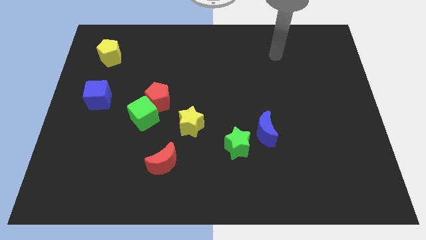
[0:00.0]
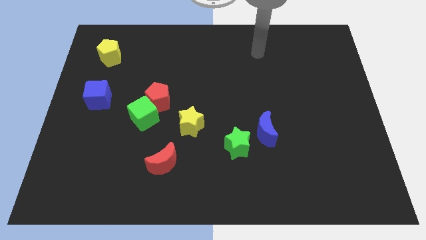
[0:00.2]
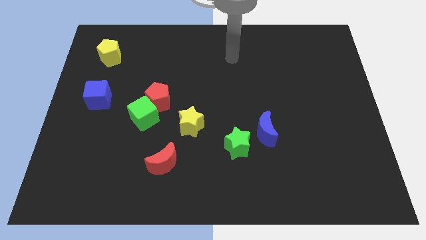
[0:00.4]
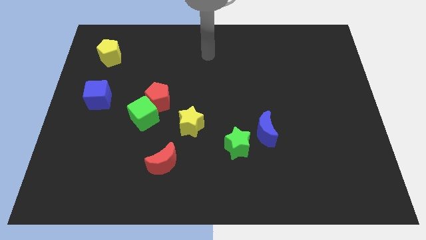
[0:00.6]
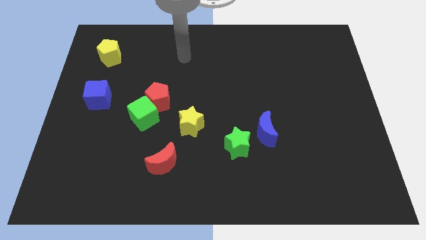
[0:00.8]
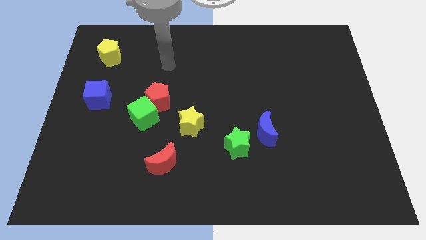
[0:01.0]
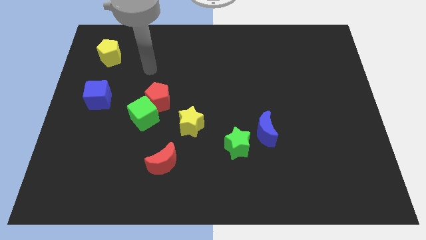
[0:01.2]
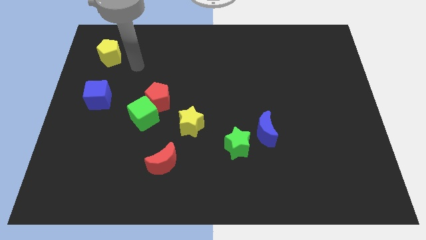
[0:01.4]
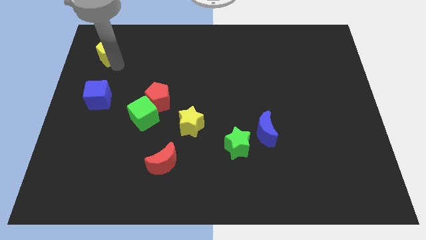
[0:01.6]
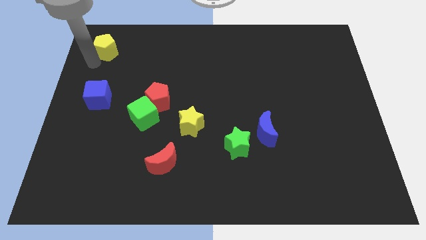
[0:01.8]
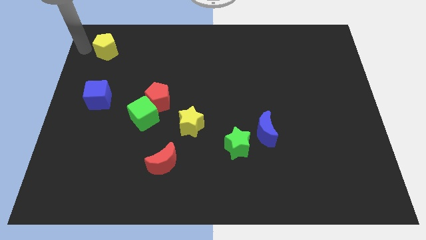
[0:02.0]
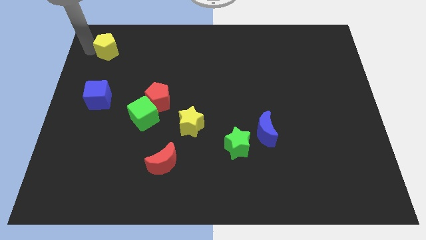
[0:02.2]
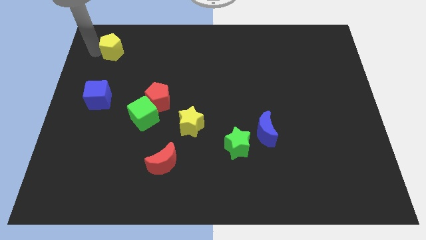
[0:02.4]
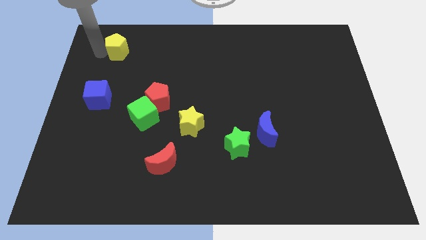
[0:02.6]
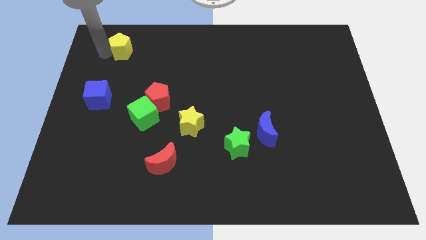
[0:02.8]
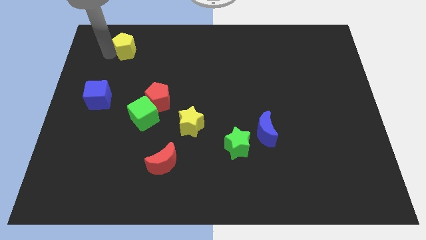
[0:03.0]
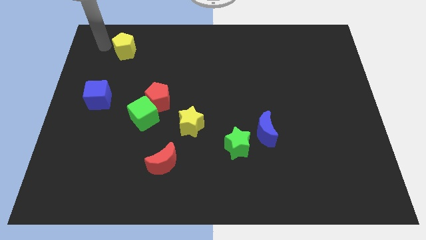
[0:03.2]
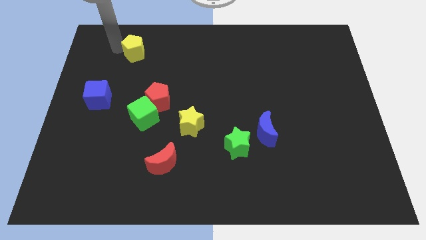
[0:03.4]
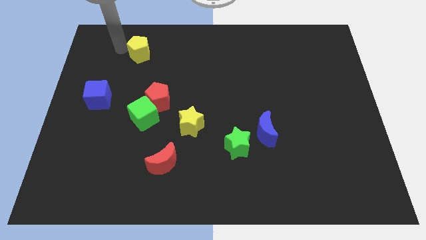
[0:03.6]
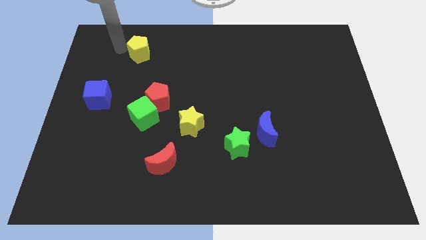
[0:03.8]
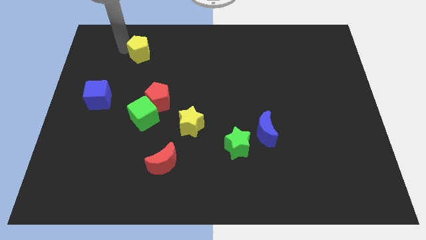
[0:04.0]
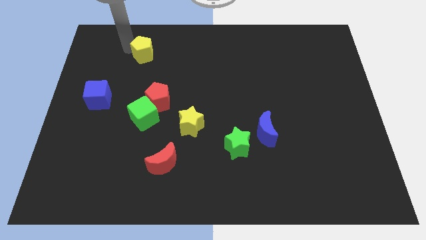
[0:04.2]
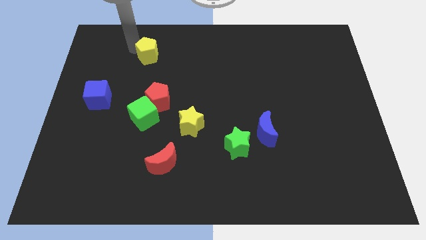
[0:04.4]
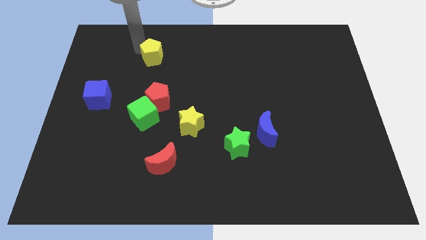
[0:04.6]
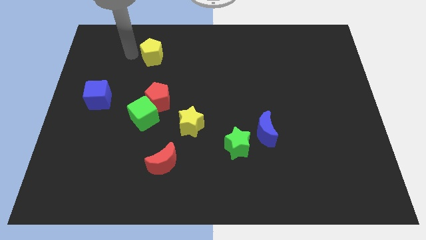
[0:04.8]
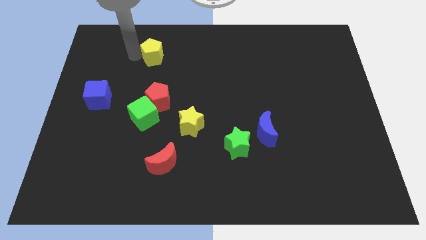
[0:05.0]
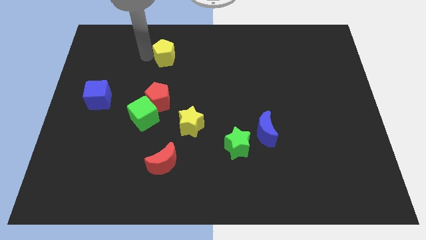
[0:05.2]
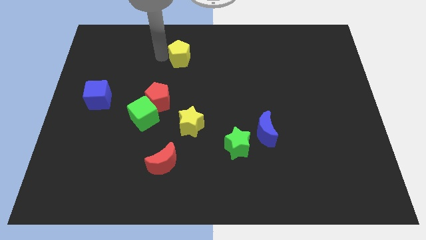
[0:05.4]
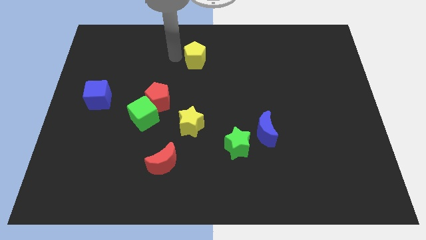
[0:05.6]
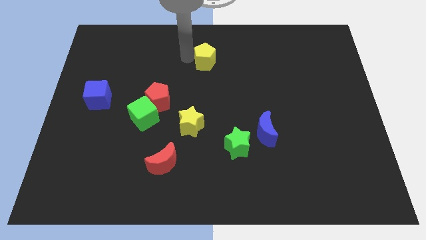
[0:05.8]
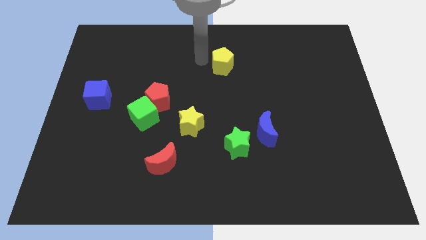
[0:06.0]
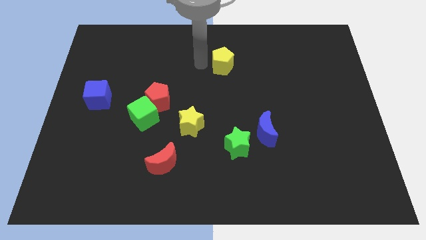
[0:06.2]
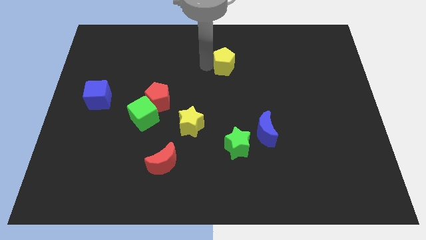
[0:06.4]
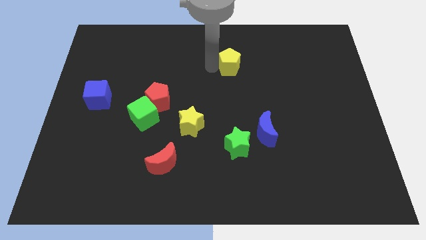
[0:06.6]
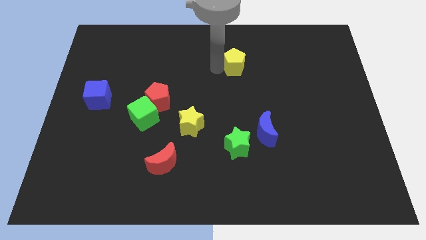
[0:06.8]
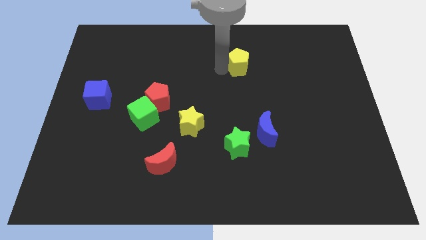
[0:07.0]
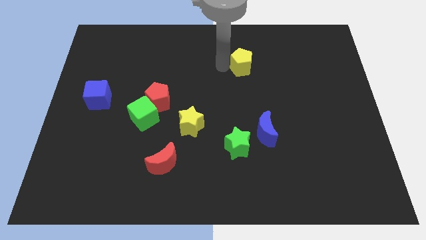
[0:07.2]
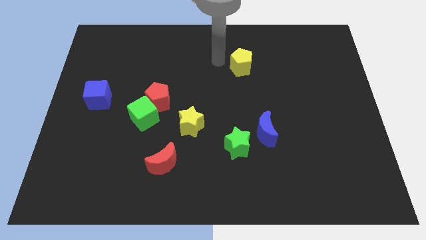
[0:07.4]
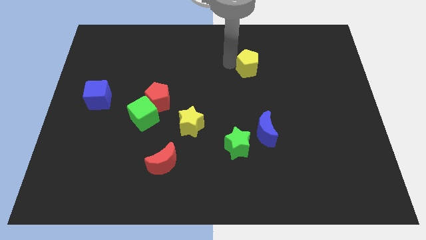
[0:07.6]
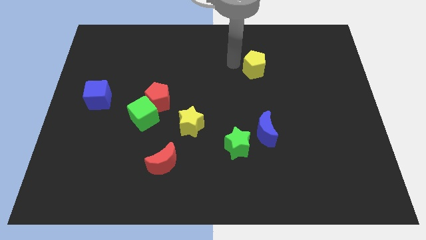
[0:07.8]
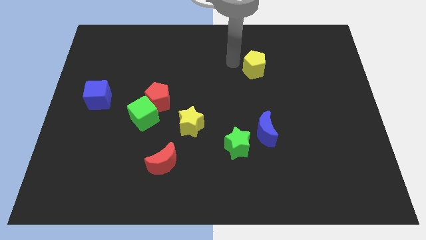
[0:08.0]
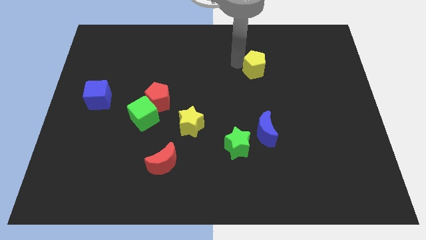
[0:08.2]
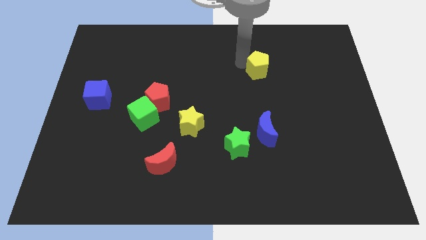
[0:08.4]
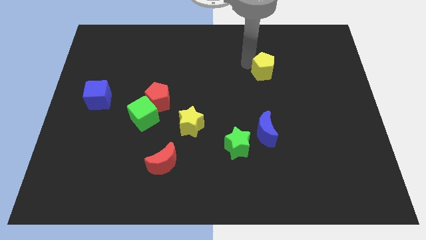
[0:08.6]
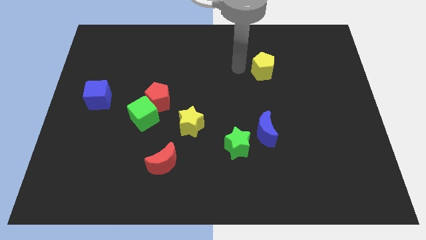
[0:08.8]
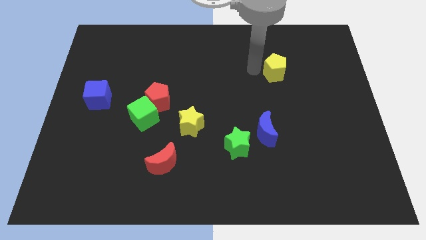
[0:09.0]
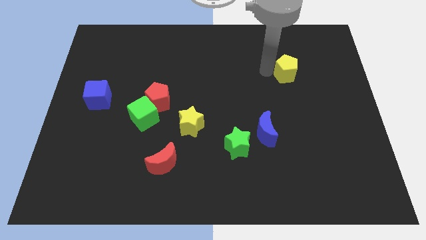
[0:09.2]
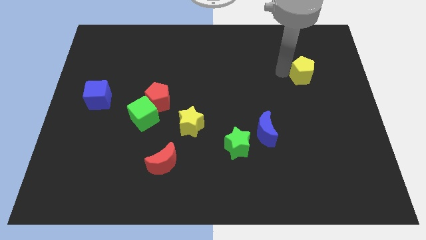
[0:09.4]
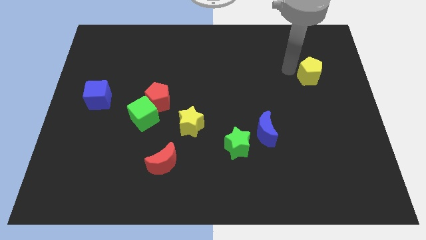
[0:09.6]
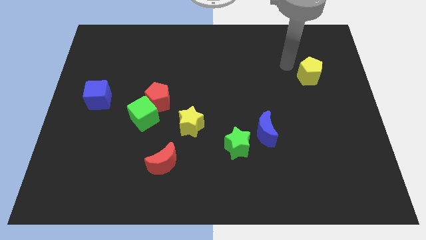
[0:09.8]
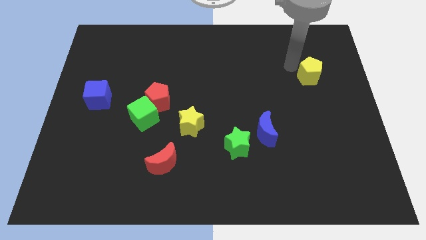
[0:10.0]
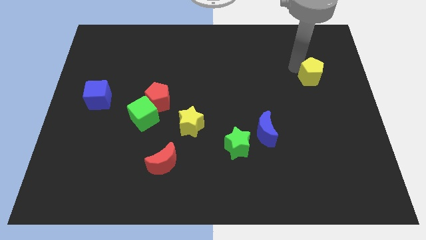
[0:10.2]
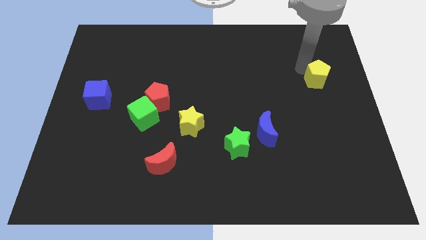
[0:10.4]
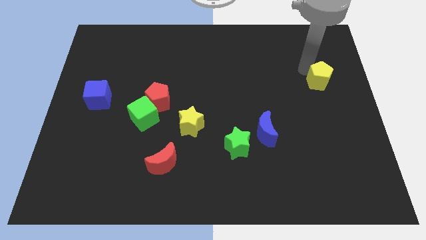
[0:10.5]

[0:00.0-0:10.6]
push the yellow pentagon to the right side of the board

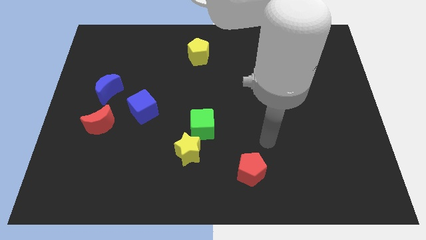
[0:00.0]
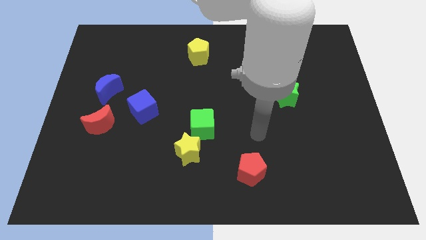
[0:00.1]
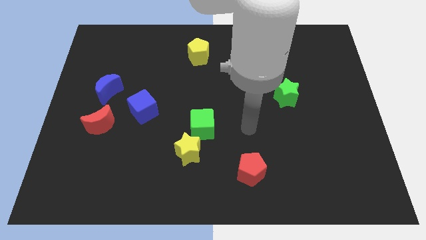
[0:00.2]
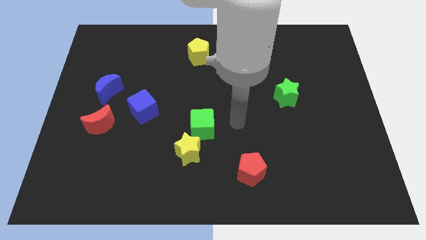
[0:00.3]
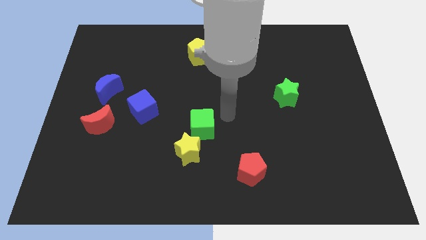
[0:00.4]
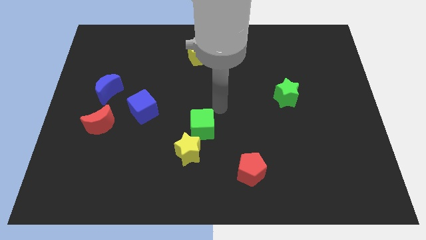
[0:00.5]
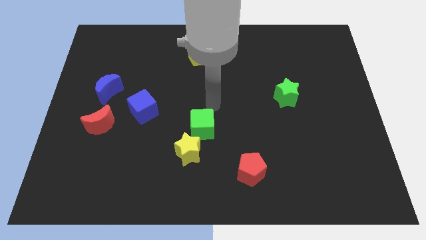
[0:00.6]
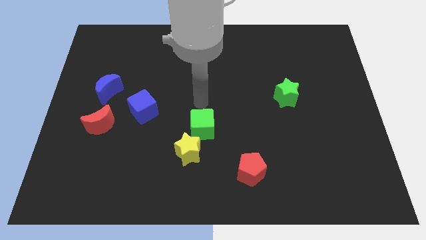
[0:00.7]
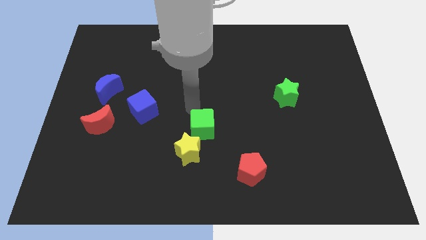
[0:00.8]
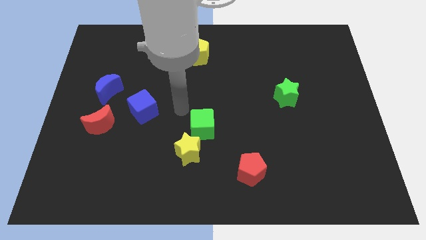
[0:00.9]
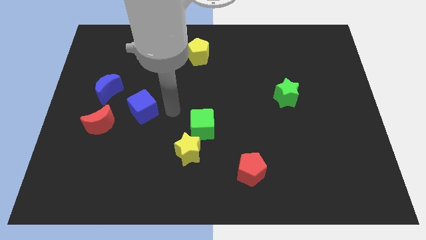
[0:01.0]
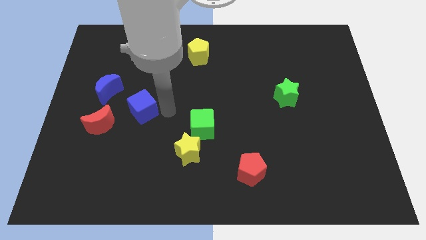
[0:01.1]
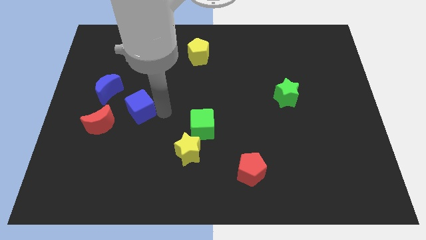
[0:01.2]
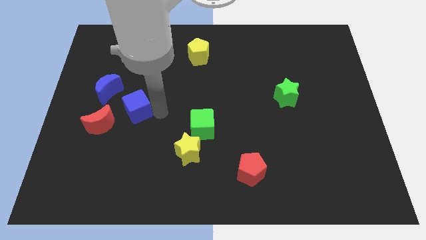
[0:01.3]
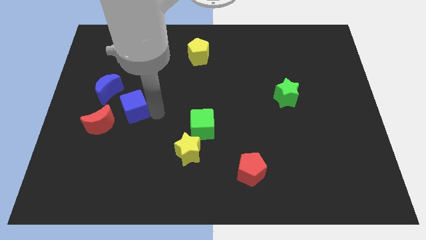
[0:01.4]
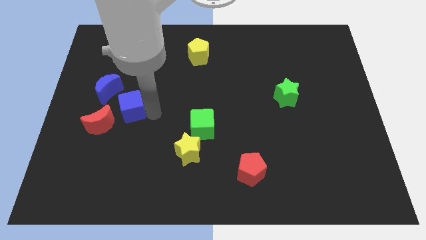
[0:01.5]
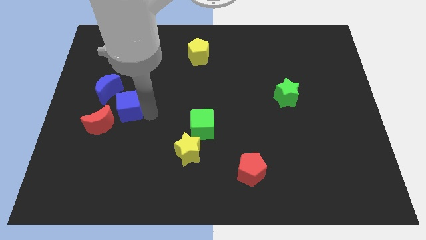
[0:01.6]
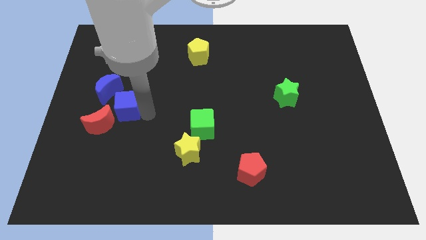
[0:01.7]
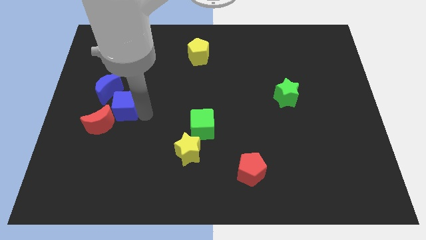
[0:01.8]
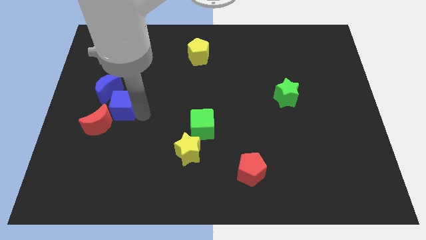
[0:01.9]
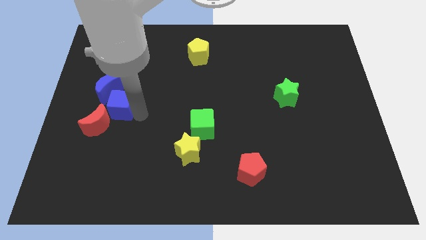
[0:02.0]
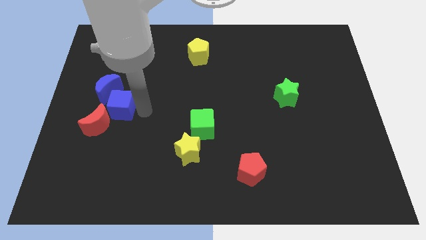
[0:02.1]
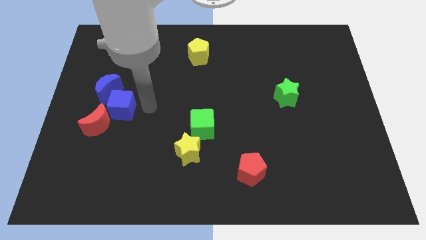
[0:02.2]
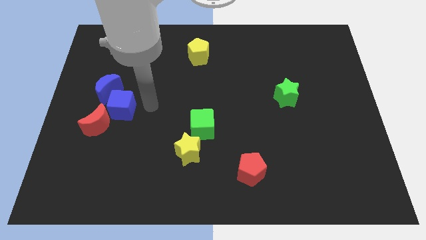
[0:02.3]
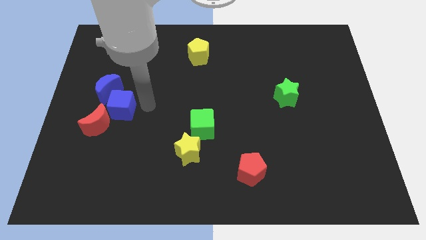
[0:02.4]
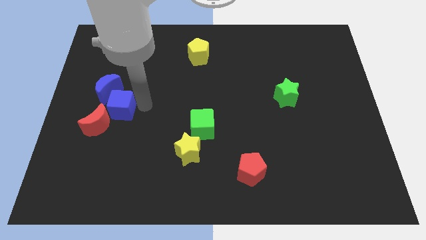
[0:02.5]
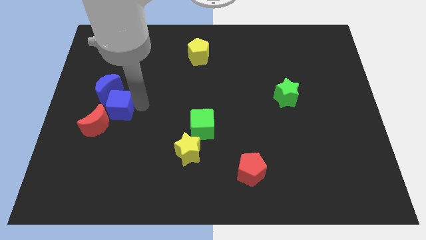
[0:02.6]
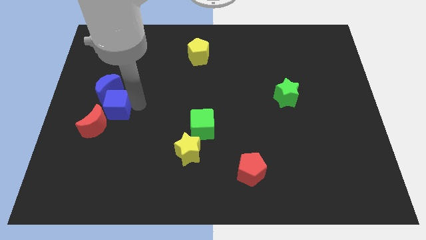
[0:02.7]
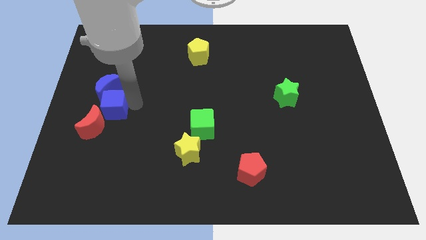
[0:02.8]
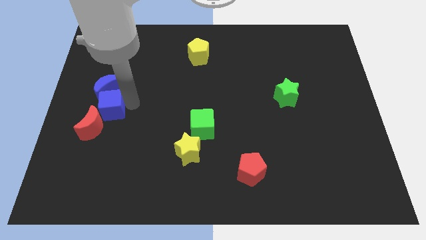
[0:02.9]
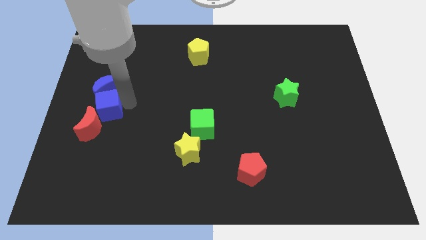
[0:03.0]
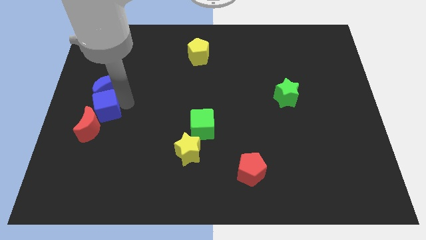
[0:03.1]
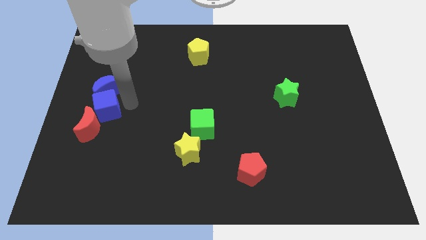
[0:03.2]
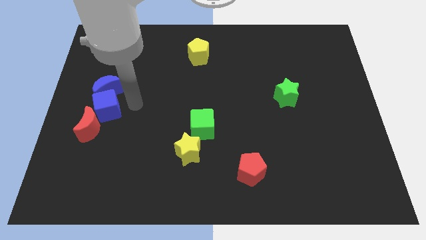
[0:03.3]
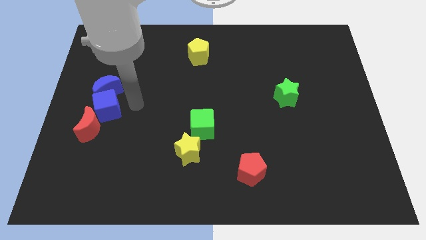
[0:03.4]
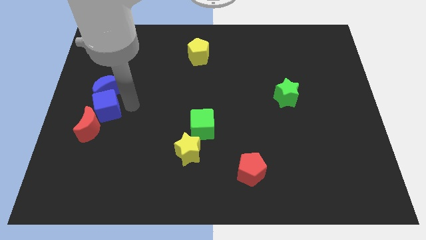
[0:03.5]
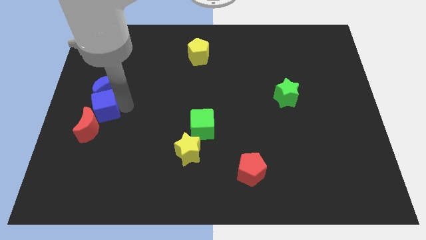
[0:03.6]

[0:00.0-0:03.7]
move the blue cube to the center left
